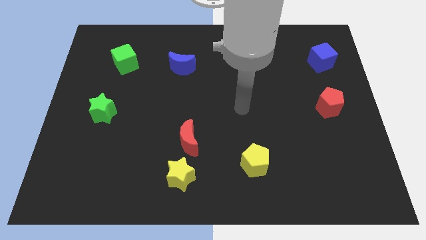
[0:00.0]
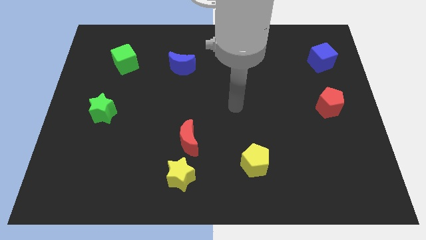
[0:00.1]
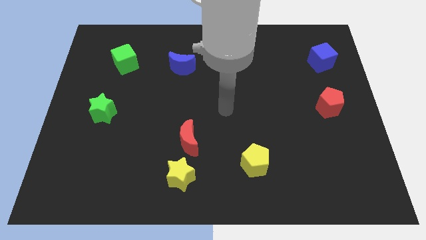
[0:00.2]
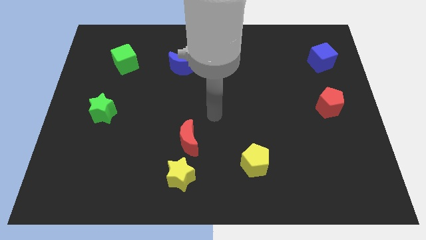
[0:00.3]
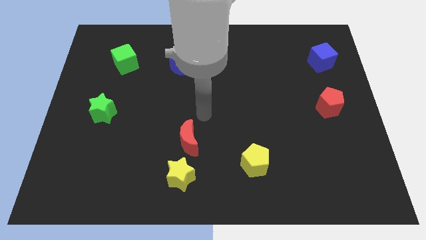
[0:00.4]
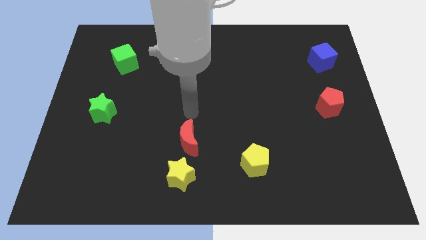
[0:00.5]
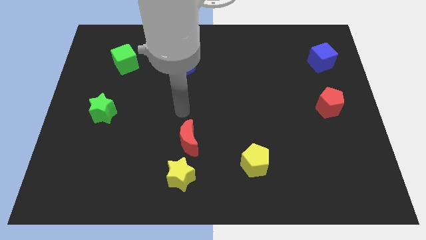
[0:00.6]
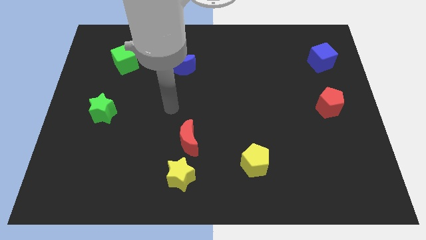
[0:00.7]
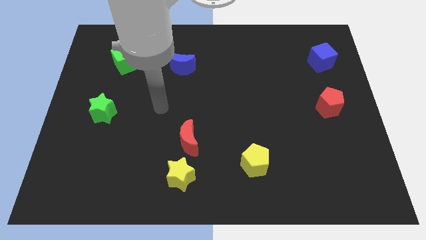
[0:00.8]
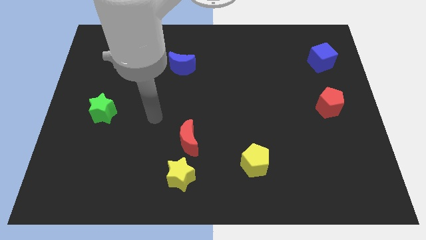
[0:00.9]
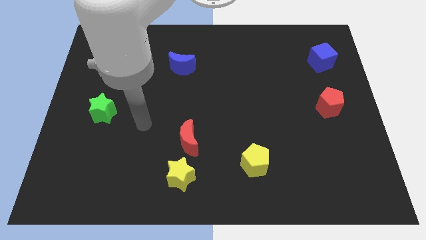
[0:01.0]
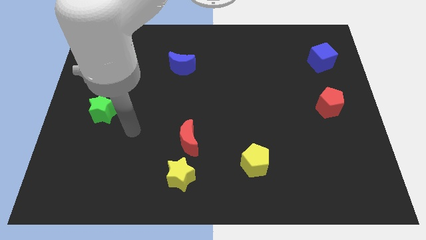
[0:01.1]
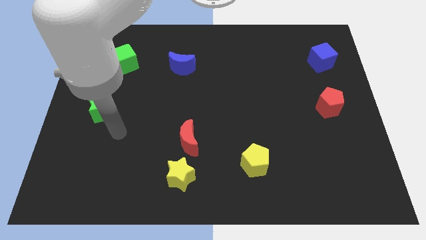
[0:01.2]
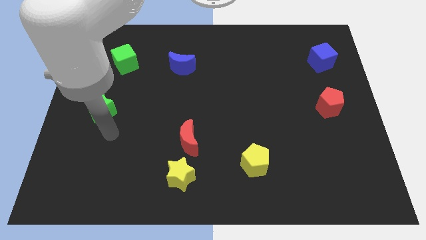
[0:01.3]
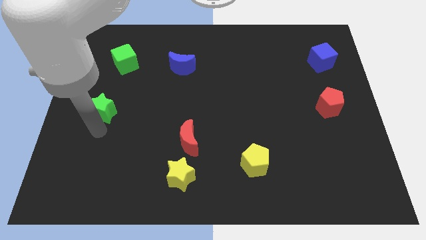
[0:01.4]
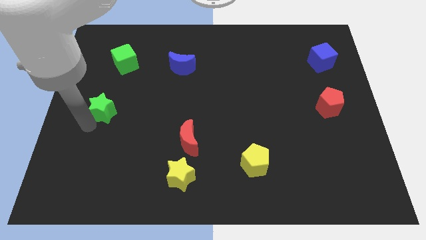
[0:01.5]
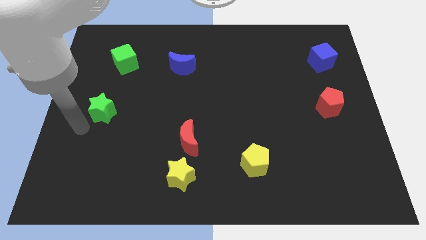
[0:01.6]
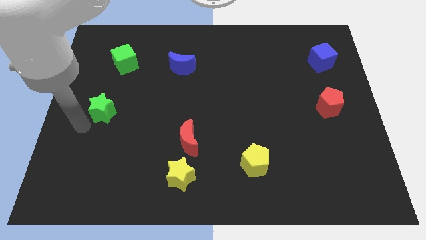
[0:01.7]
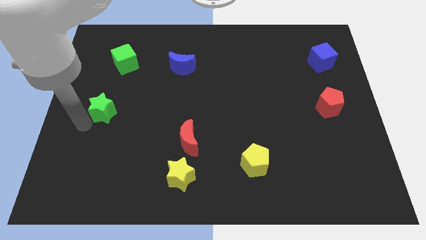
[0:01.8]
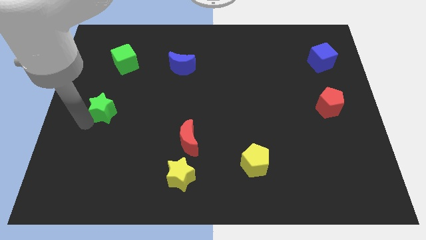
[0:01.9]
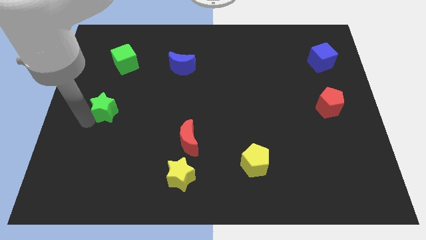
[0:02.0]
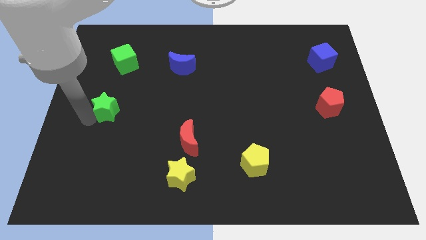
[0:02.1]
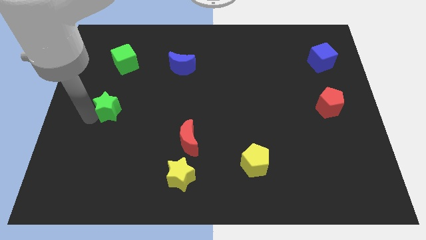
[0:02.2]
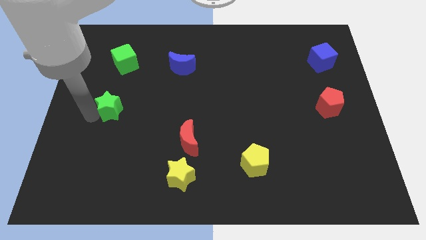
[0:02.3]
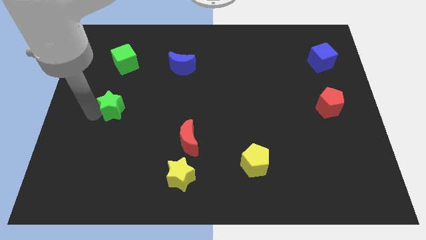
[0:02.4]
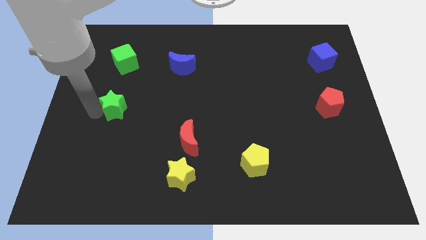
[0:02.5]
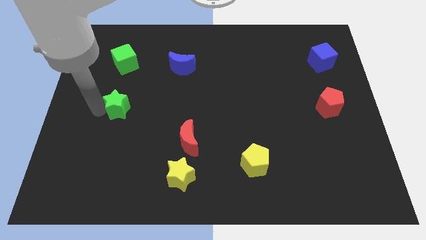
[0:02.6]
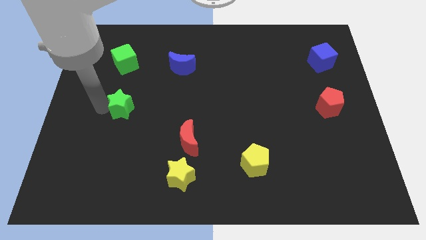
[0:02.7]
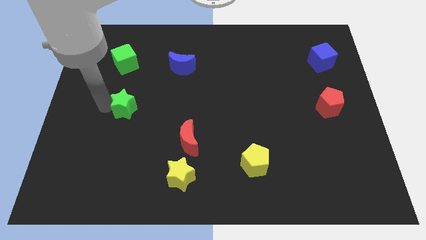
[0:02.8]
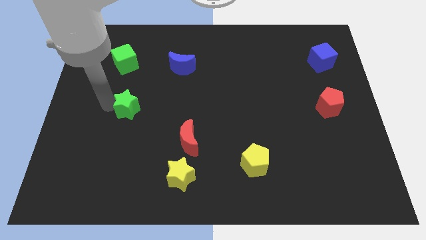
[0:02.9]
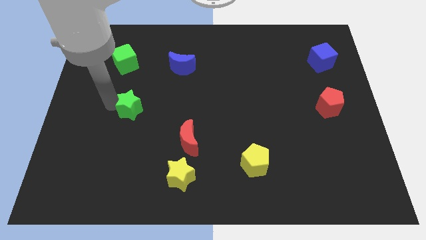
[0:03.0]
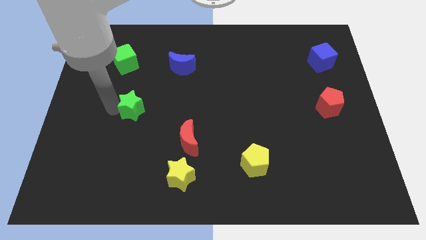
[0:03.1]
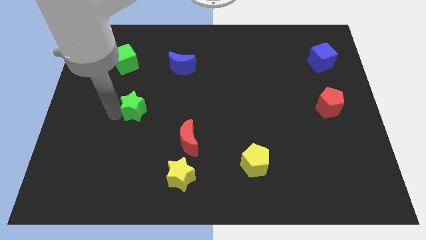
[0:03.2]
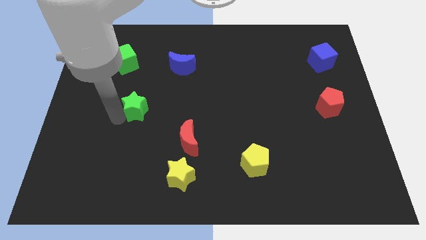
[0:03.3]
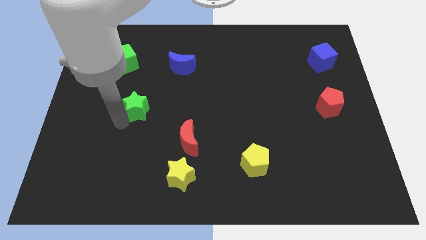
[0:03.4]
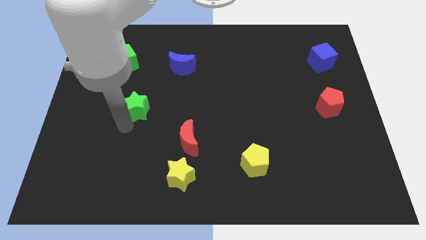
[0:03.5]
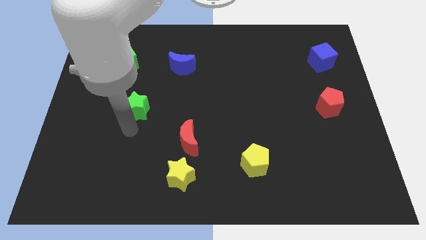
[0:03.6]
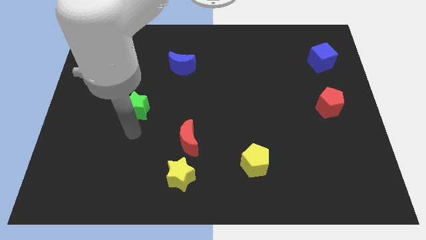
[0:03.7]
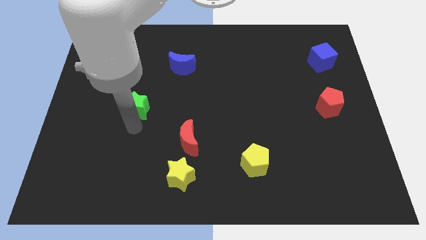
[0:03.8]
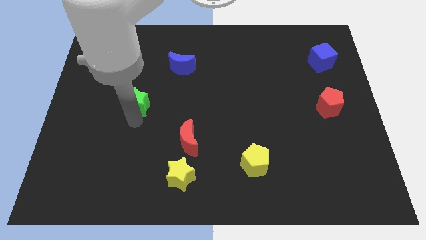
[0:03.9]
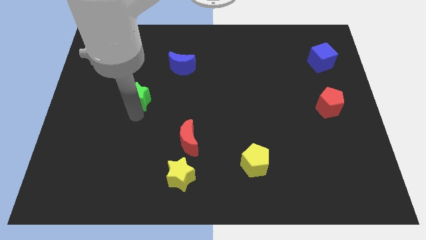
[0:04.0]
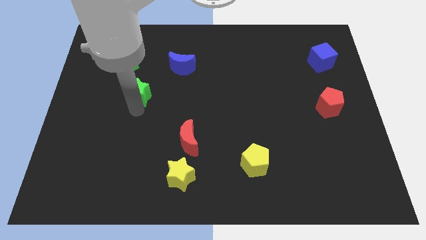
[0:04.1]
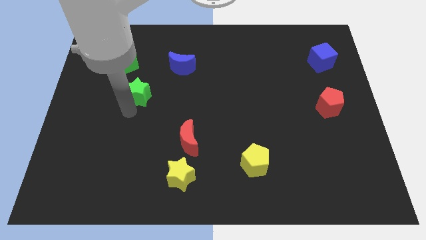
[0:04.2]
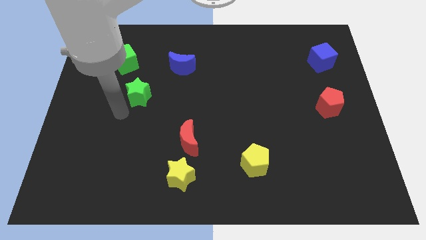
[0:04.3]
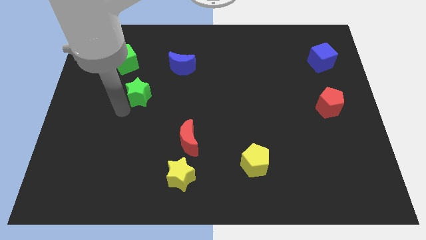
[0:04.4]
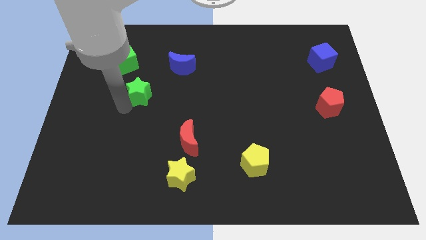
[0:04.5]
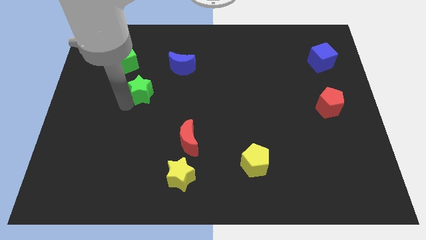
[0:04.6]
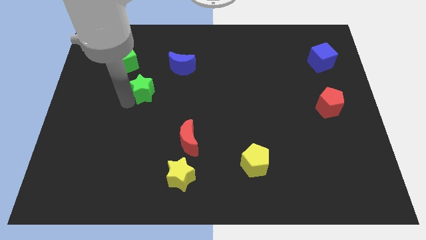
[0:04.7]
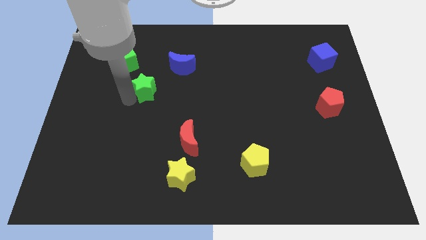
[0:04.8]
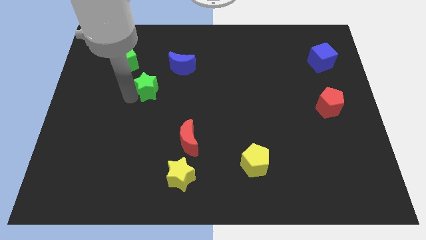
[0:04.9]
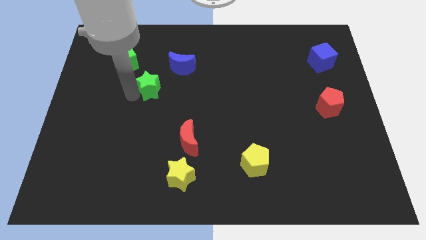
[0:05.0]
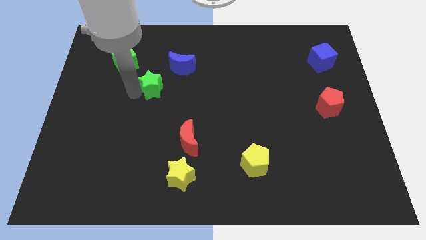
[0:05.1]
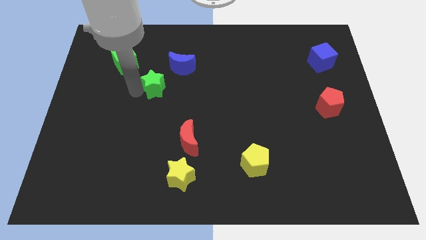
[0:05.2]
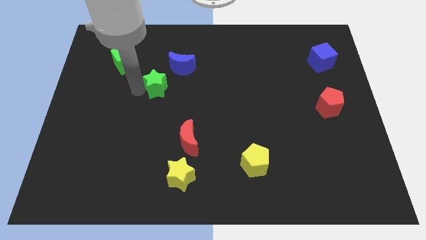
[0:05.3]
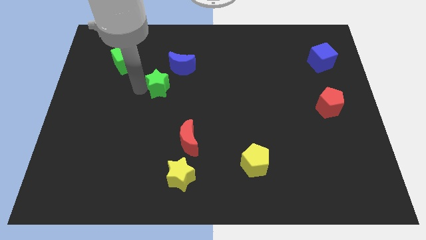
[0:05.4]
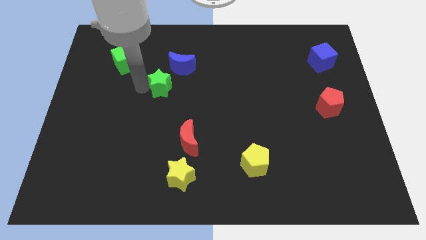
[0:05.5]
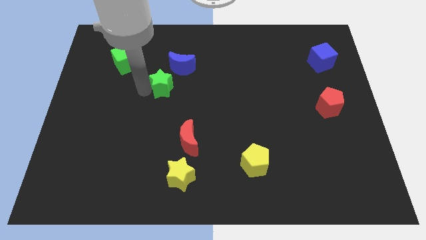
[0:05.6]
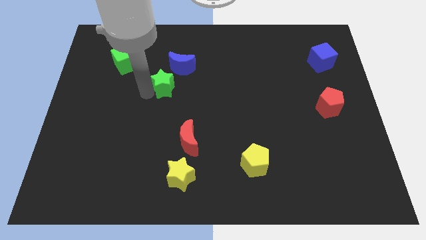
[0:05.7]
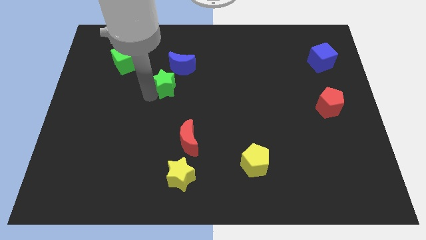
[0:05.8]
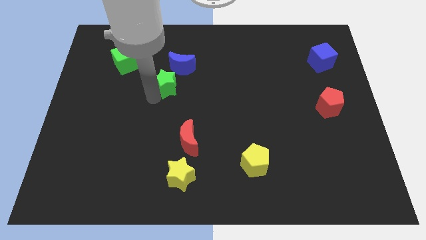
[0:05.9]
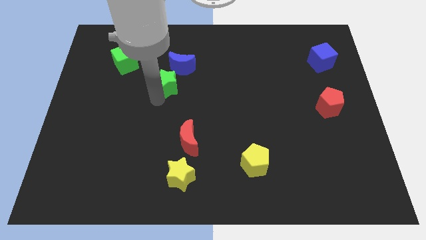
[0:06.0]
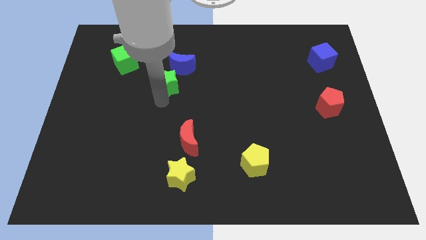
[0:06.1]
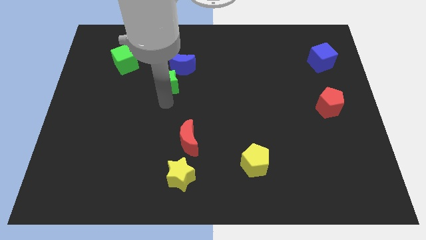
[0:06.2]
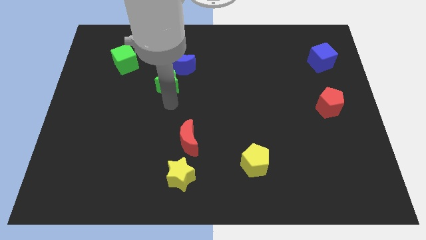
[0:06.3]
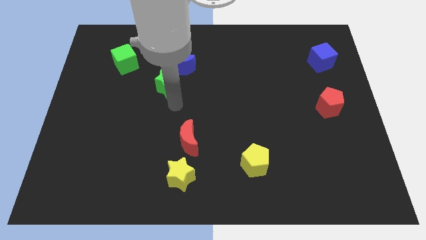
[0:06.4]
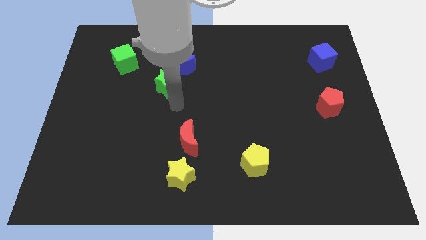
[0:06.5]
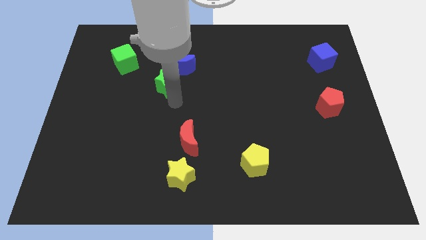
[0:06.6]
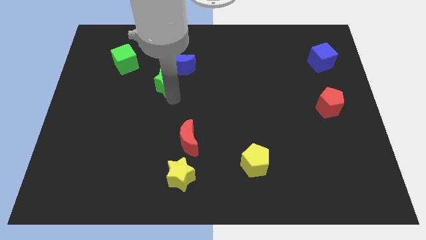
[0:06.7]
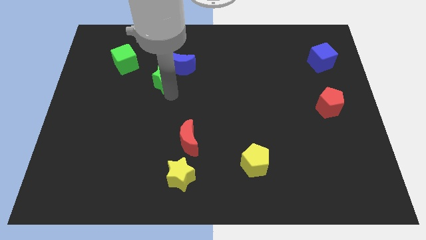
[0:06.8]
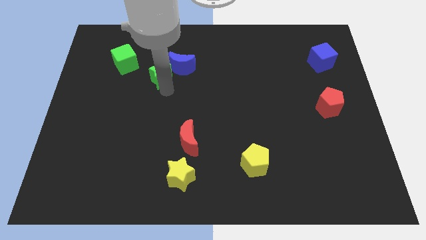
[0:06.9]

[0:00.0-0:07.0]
put the green star towards the blue moon
